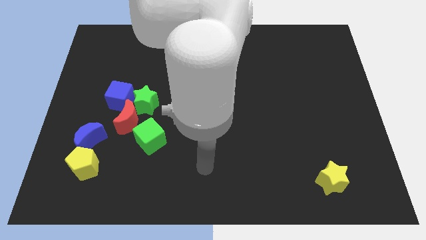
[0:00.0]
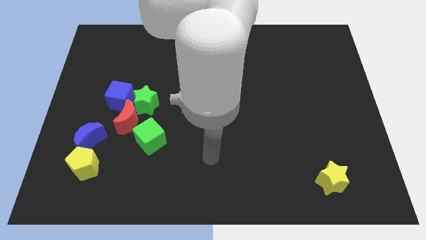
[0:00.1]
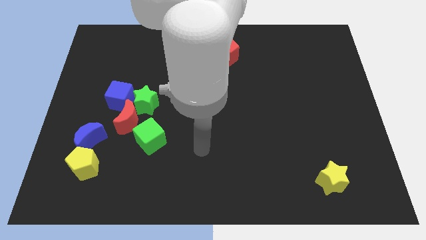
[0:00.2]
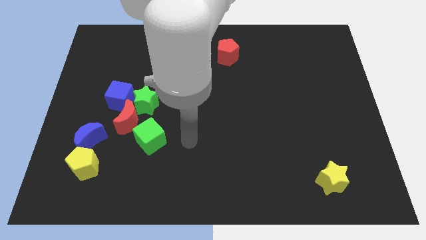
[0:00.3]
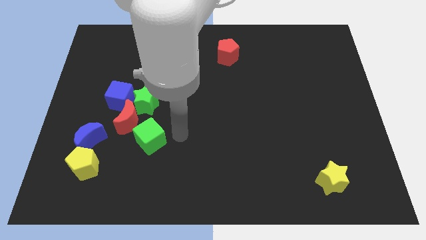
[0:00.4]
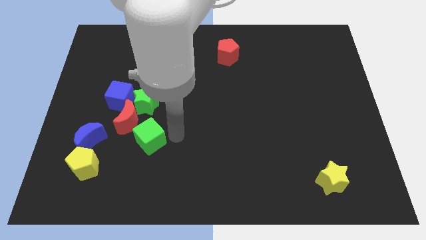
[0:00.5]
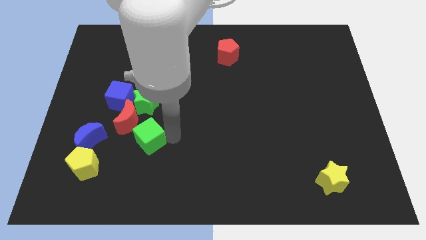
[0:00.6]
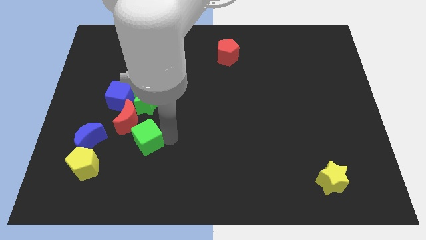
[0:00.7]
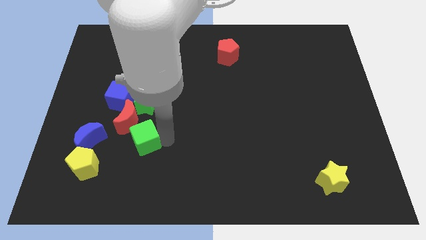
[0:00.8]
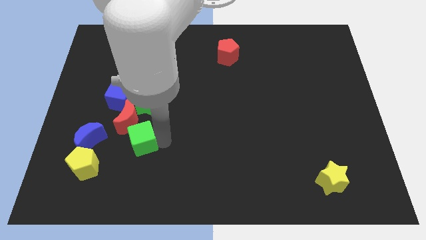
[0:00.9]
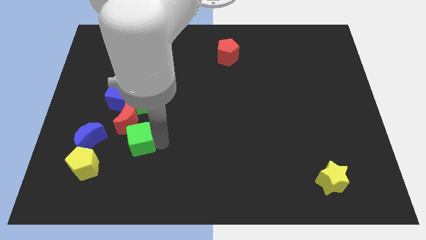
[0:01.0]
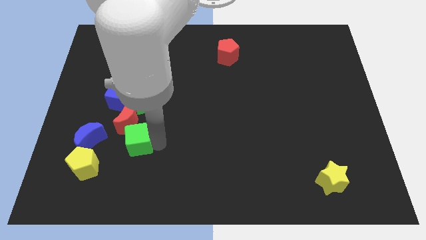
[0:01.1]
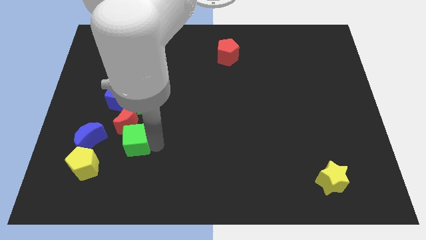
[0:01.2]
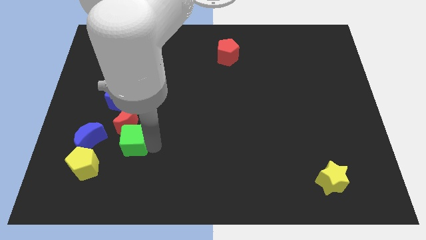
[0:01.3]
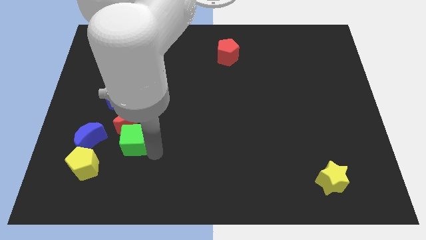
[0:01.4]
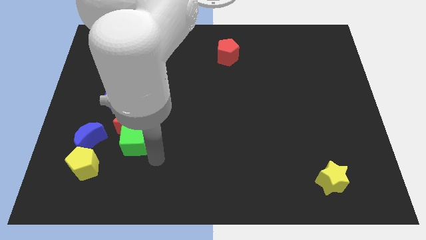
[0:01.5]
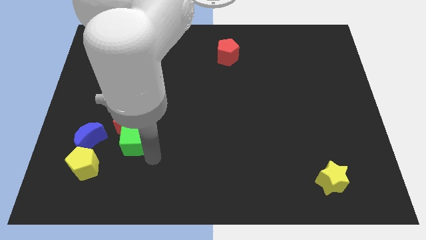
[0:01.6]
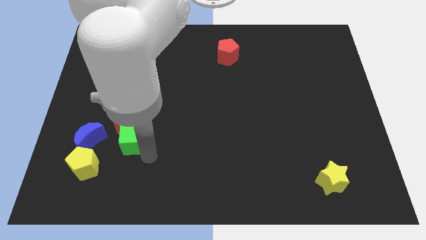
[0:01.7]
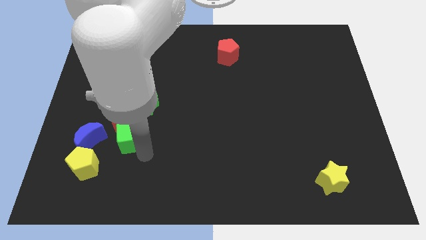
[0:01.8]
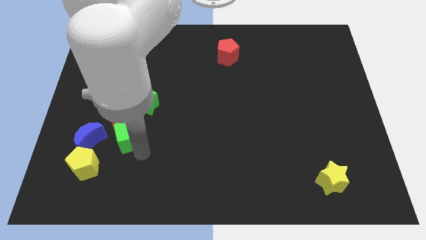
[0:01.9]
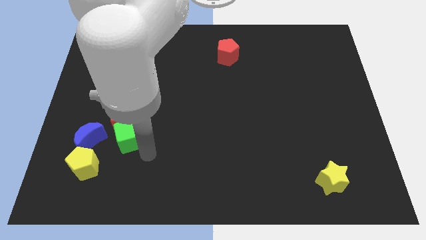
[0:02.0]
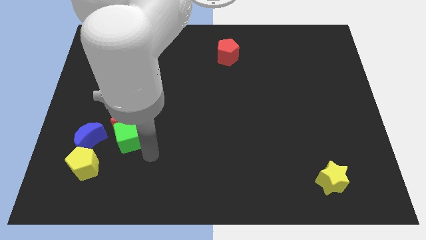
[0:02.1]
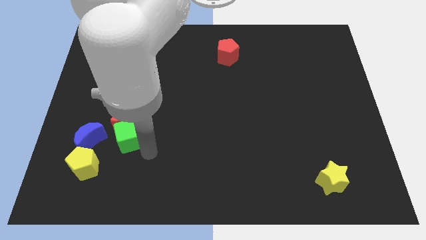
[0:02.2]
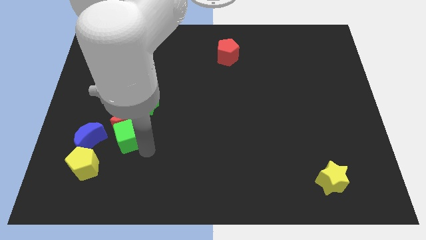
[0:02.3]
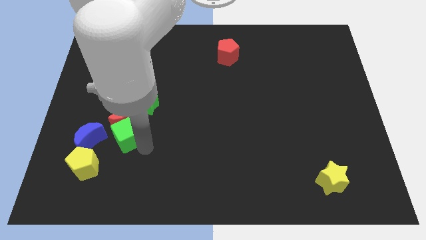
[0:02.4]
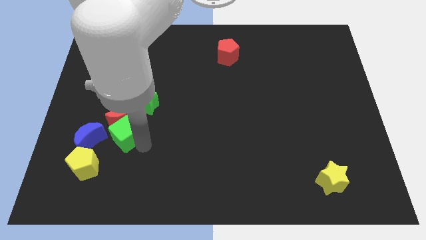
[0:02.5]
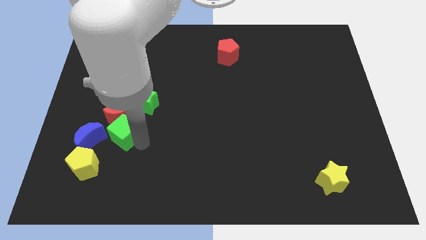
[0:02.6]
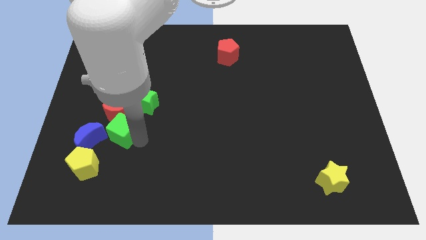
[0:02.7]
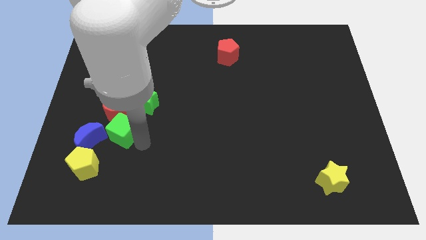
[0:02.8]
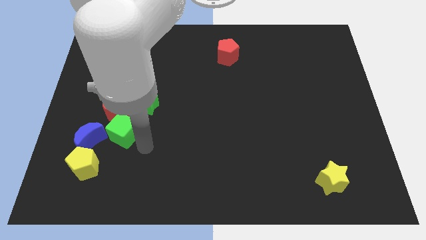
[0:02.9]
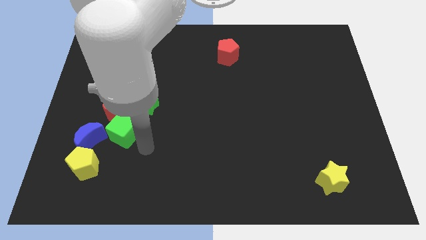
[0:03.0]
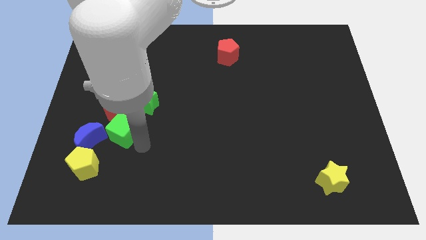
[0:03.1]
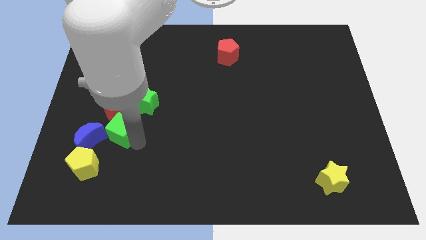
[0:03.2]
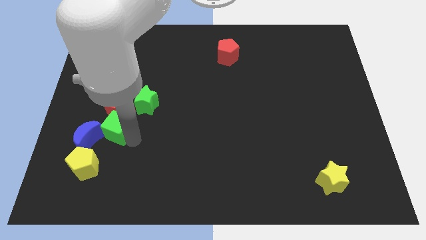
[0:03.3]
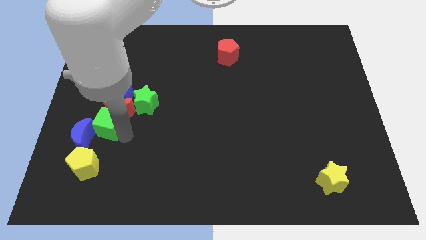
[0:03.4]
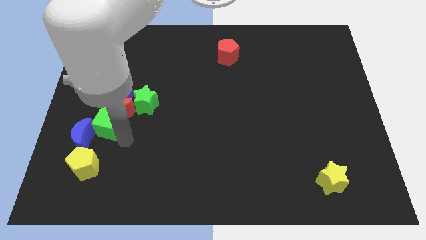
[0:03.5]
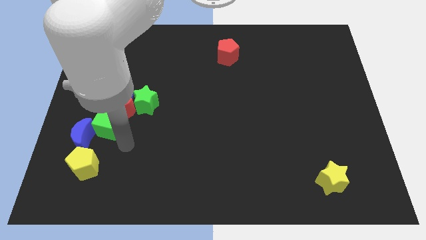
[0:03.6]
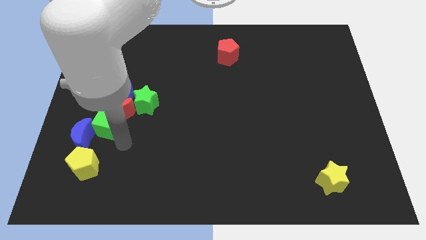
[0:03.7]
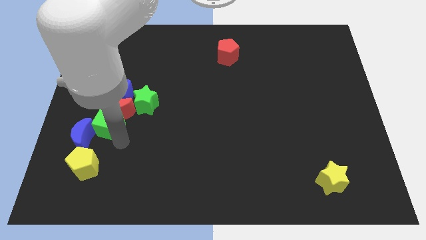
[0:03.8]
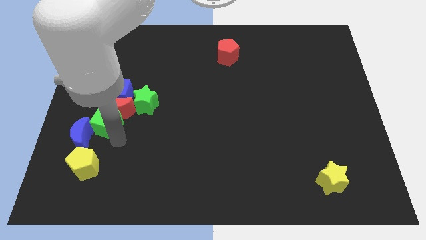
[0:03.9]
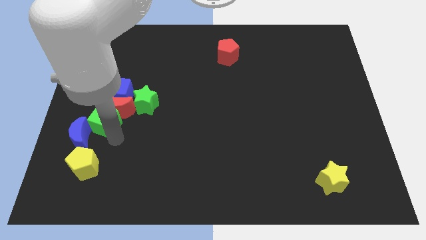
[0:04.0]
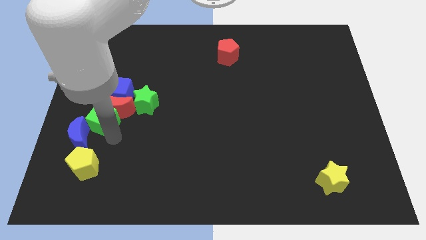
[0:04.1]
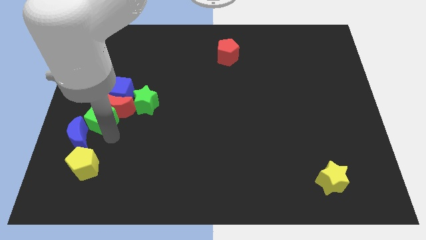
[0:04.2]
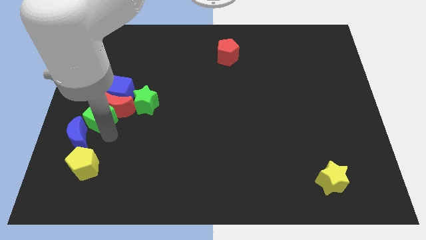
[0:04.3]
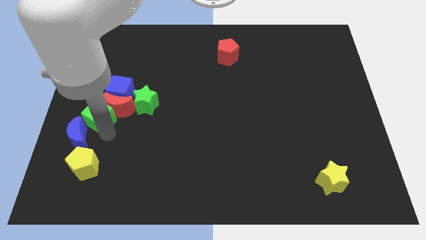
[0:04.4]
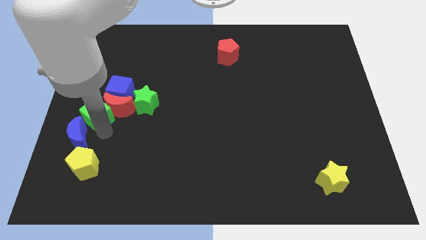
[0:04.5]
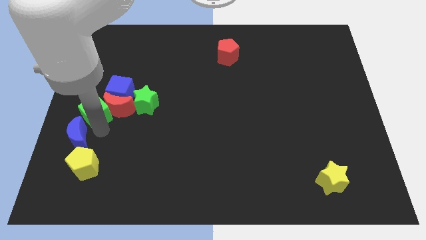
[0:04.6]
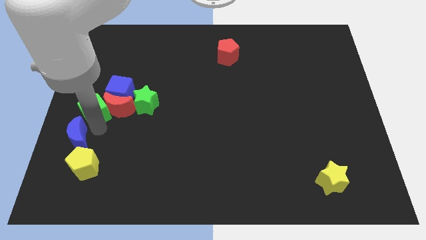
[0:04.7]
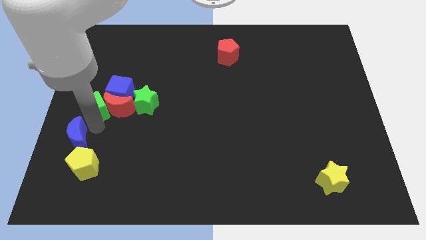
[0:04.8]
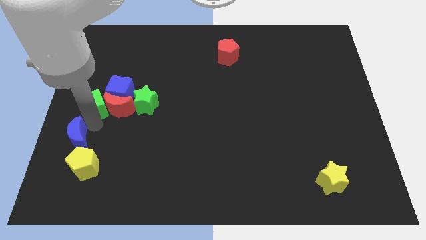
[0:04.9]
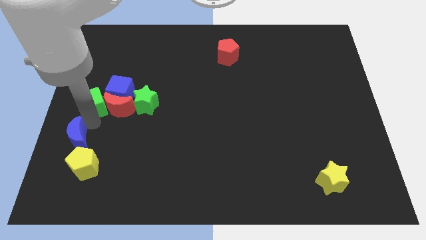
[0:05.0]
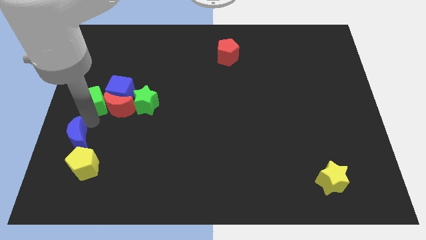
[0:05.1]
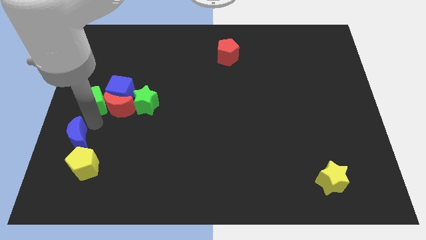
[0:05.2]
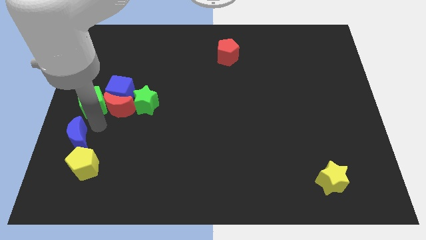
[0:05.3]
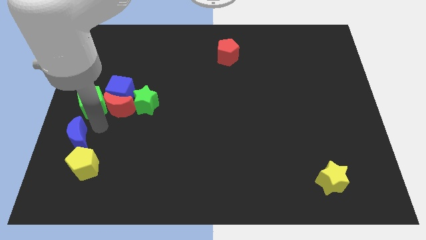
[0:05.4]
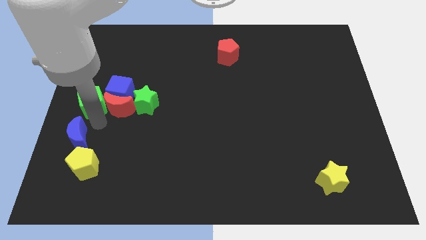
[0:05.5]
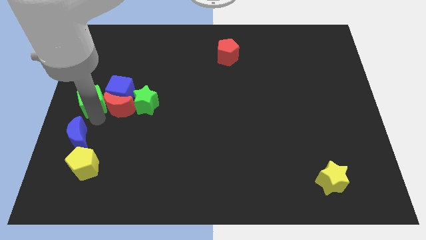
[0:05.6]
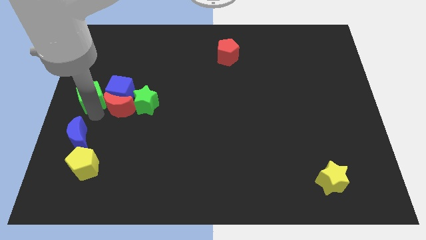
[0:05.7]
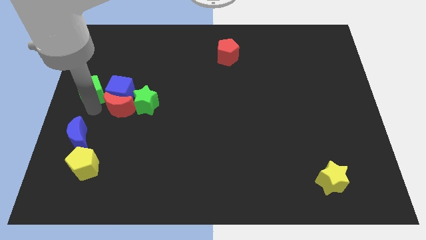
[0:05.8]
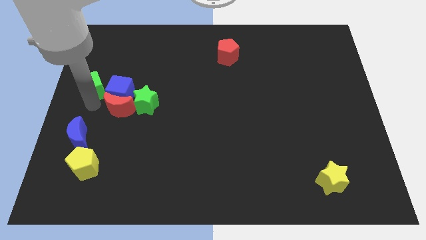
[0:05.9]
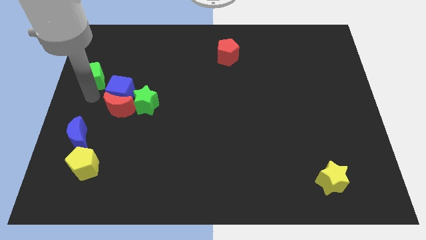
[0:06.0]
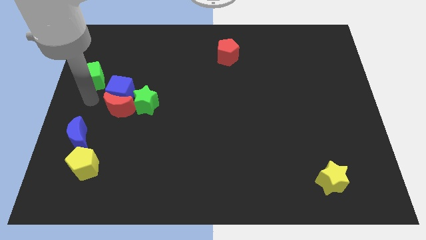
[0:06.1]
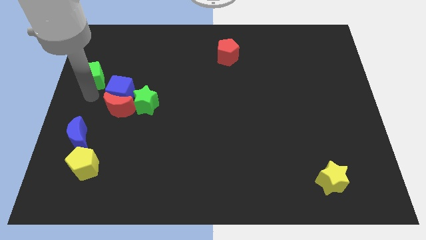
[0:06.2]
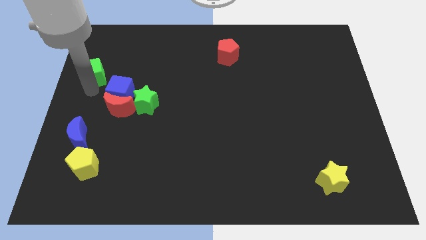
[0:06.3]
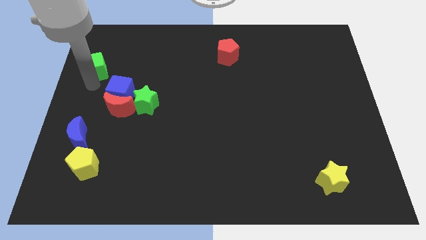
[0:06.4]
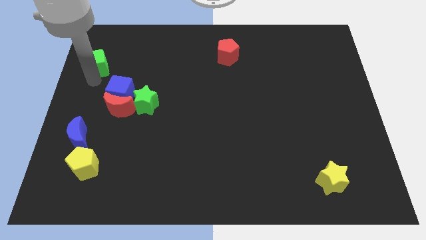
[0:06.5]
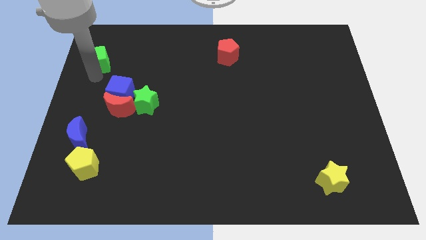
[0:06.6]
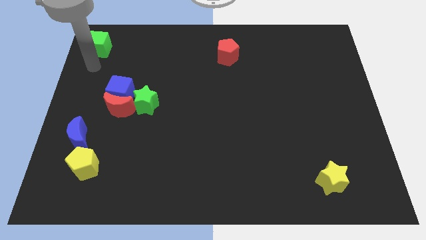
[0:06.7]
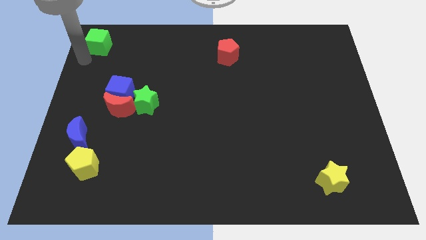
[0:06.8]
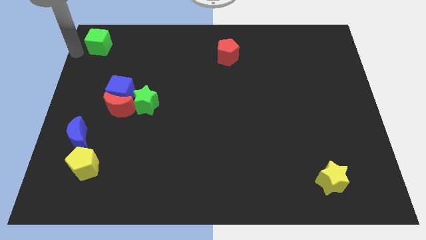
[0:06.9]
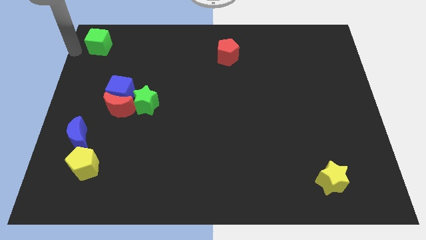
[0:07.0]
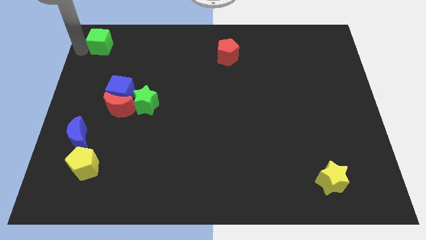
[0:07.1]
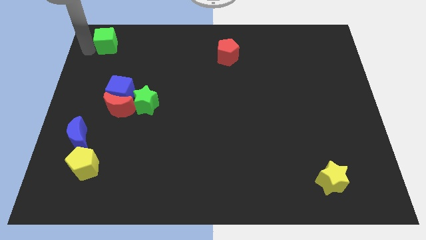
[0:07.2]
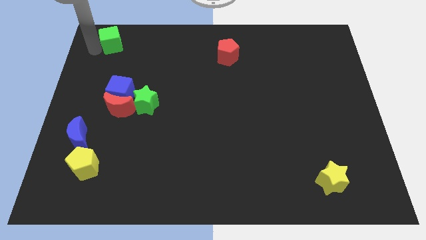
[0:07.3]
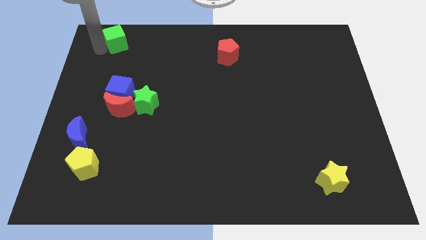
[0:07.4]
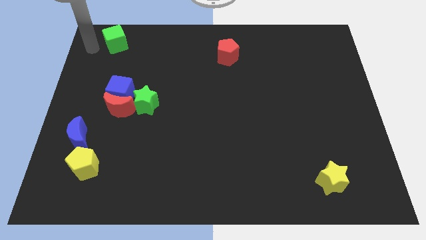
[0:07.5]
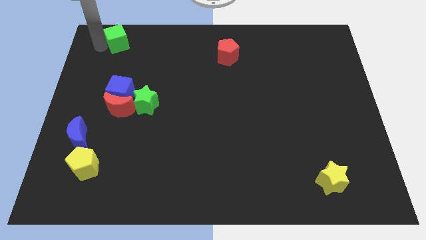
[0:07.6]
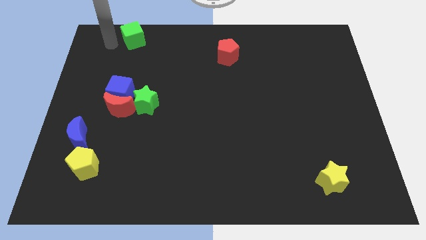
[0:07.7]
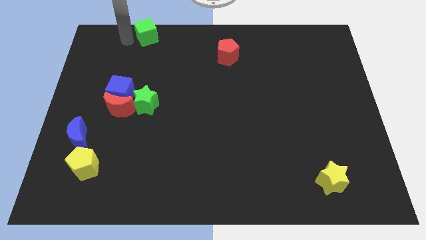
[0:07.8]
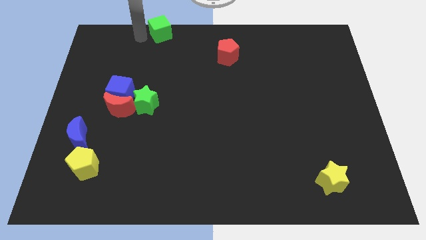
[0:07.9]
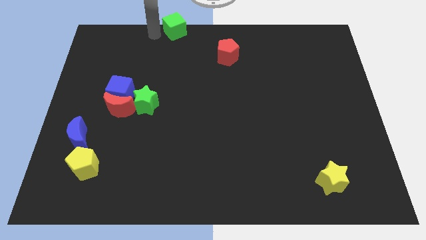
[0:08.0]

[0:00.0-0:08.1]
move the green cube to the top side
